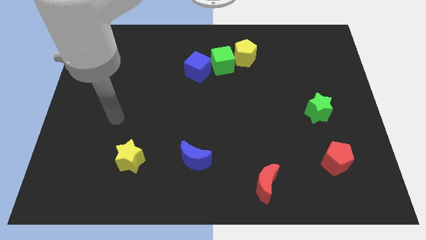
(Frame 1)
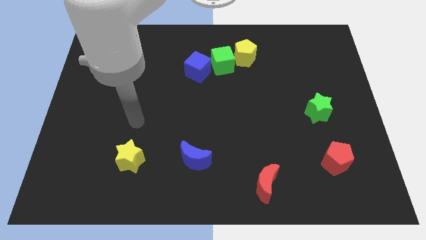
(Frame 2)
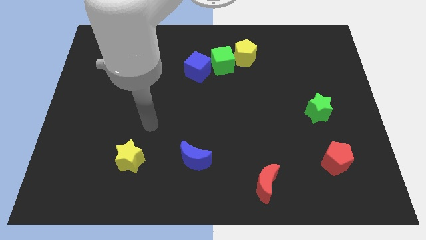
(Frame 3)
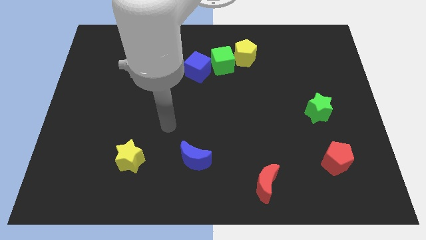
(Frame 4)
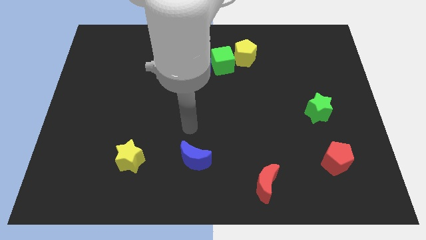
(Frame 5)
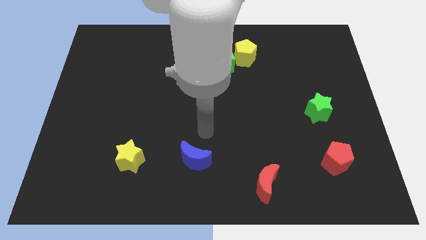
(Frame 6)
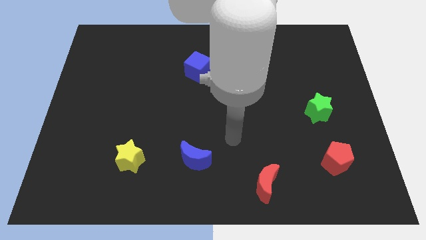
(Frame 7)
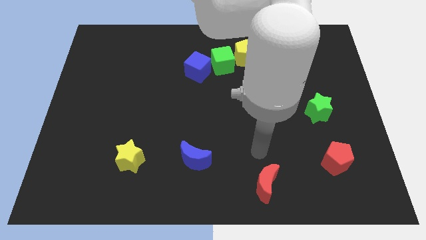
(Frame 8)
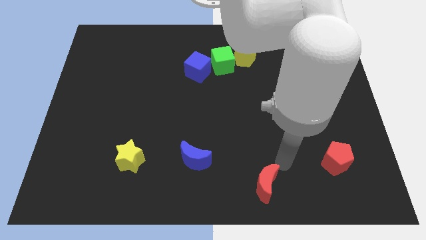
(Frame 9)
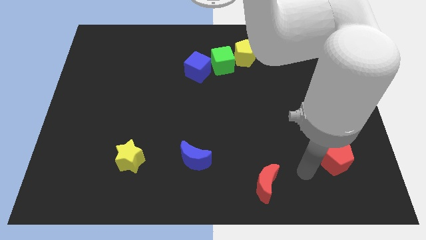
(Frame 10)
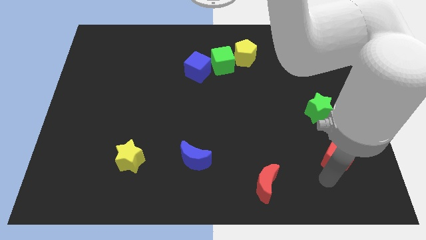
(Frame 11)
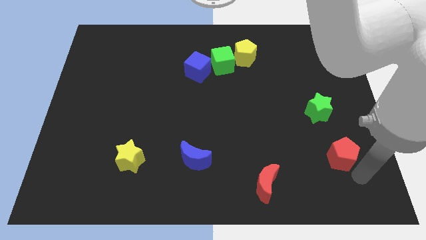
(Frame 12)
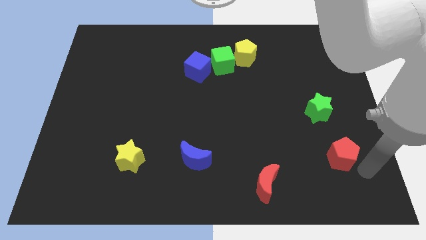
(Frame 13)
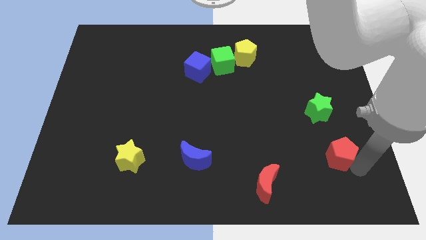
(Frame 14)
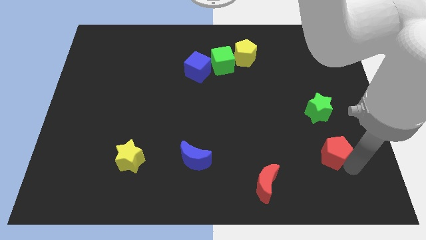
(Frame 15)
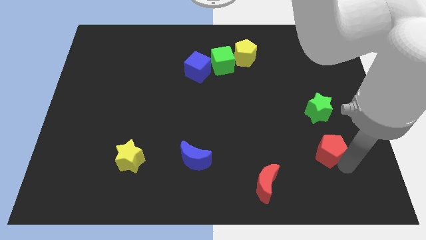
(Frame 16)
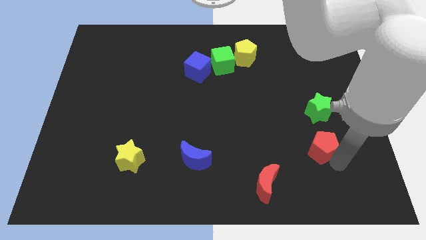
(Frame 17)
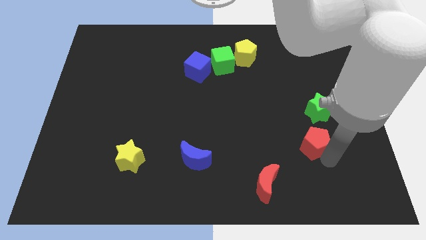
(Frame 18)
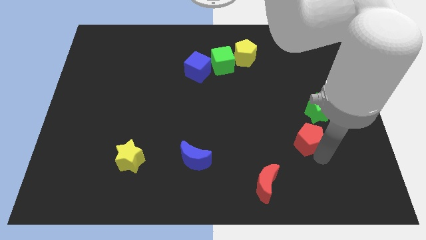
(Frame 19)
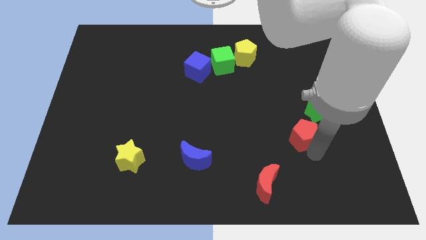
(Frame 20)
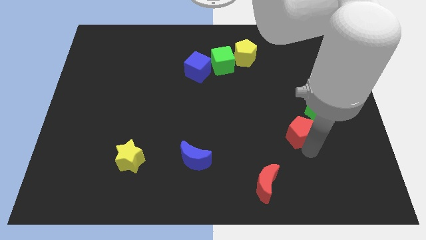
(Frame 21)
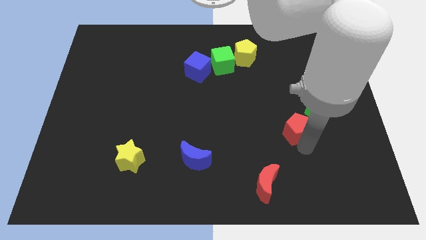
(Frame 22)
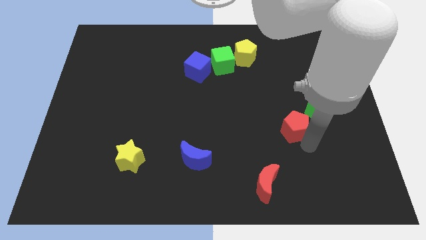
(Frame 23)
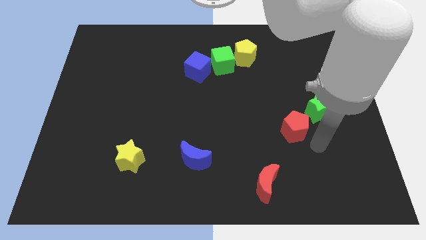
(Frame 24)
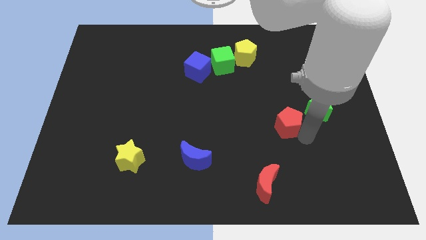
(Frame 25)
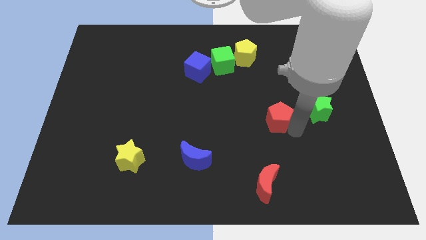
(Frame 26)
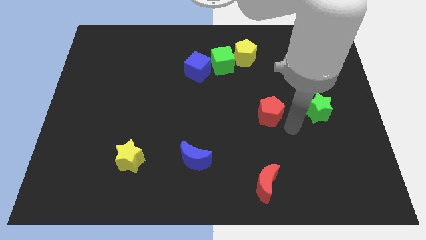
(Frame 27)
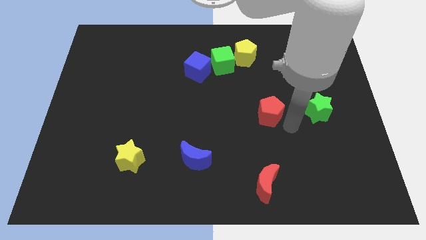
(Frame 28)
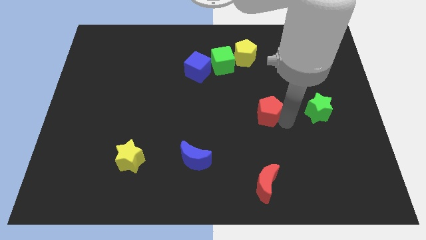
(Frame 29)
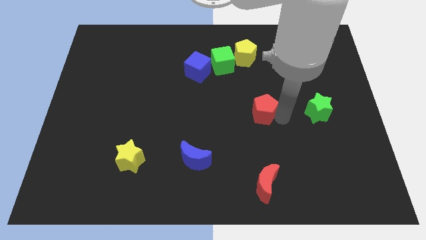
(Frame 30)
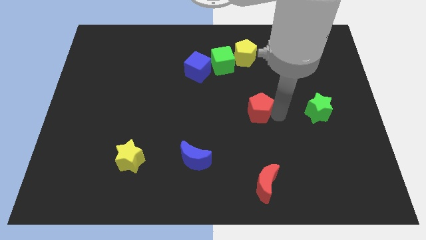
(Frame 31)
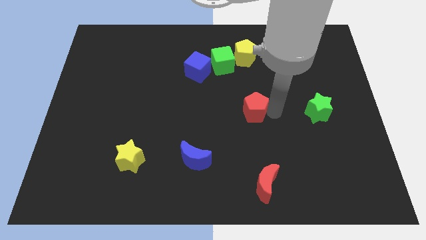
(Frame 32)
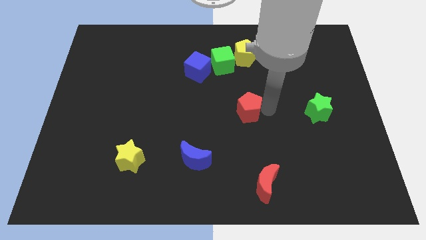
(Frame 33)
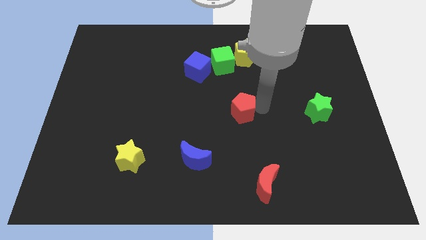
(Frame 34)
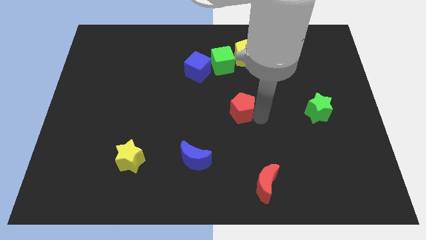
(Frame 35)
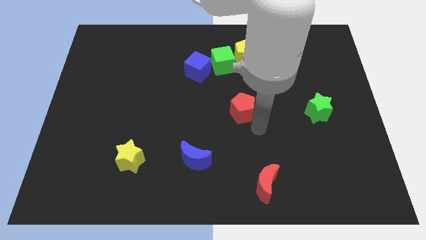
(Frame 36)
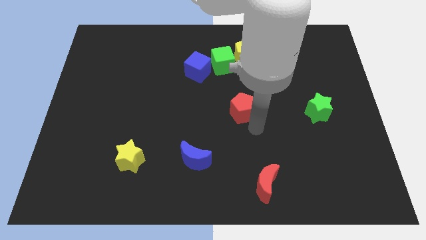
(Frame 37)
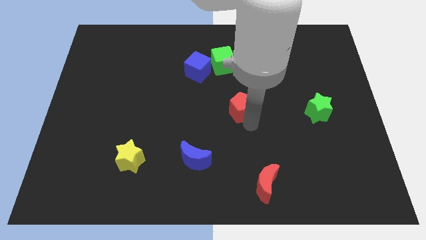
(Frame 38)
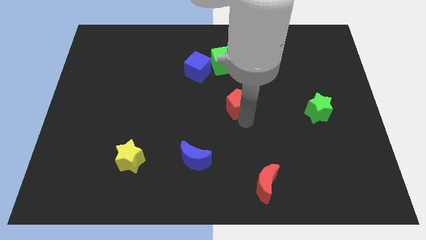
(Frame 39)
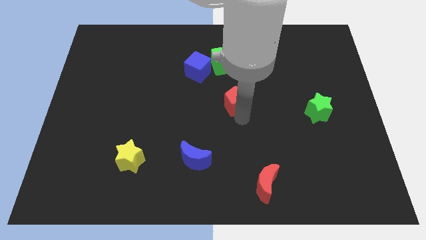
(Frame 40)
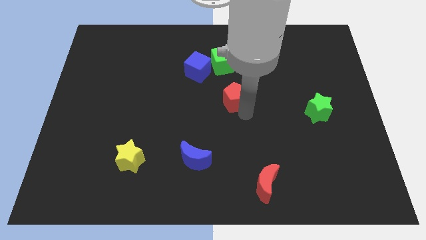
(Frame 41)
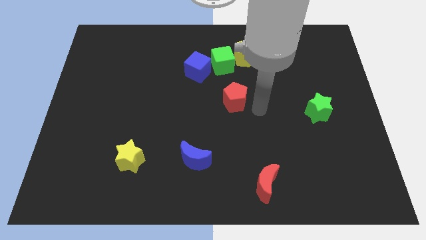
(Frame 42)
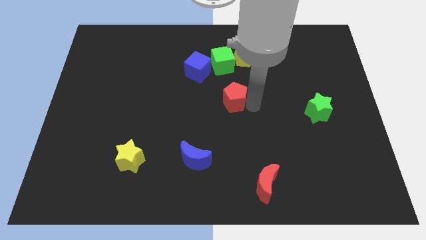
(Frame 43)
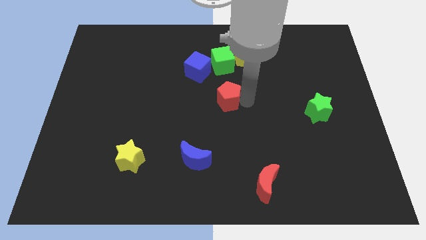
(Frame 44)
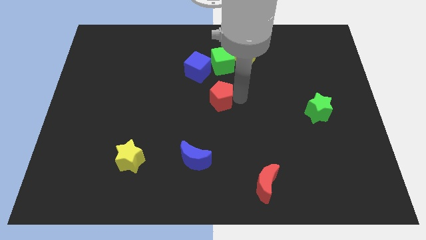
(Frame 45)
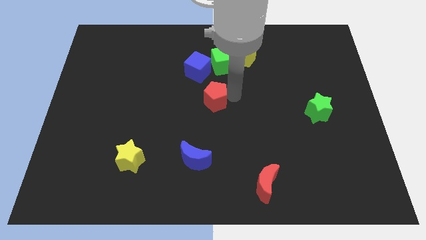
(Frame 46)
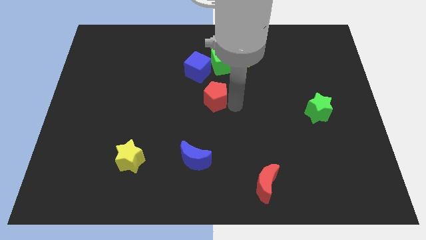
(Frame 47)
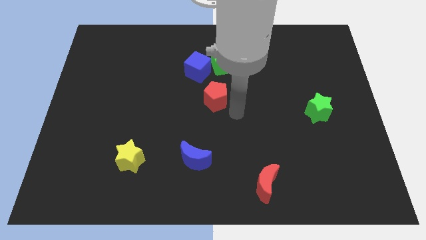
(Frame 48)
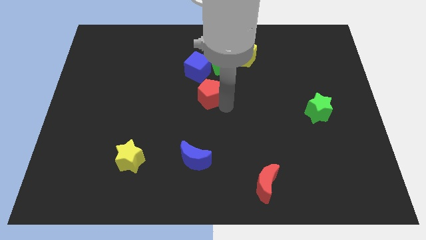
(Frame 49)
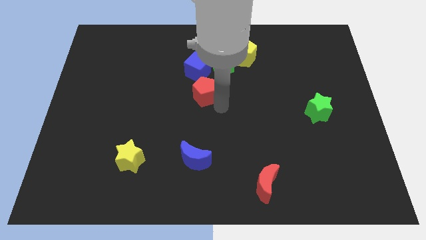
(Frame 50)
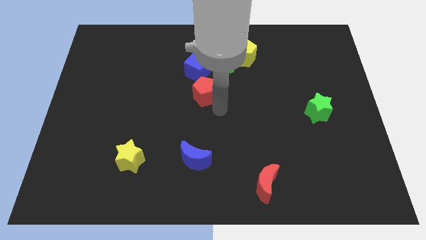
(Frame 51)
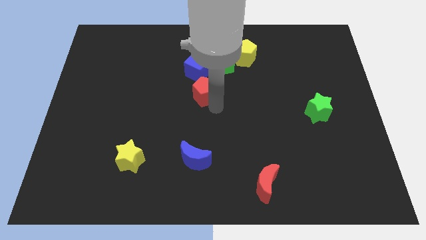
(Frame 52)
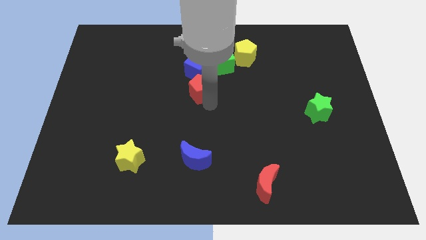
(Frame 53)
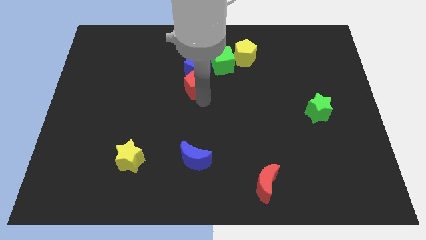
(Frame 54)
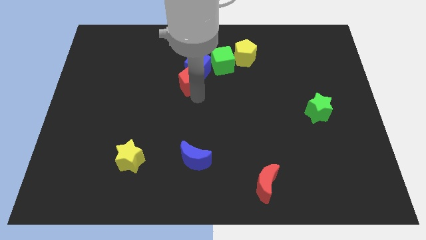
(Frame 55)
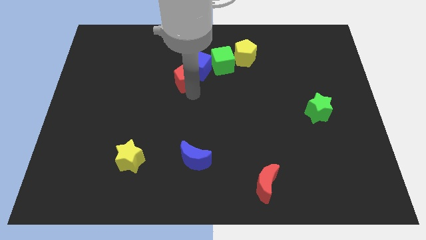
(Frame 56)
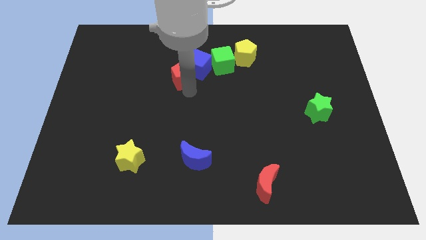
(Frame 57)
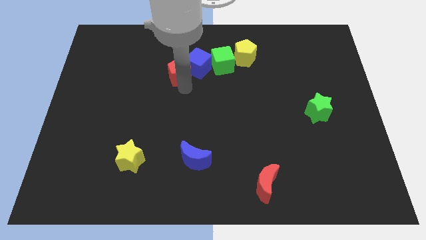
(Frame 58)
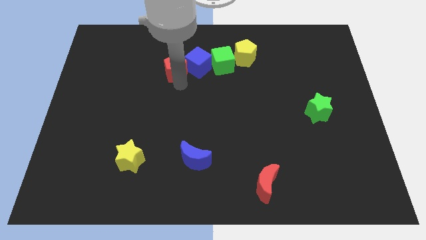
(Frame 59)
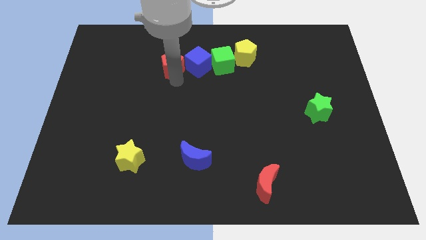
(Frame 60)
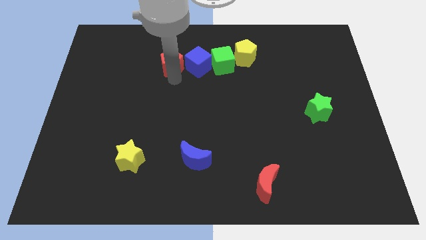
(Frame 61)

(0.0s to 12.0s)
move the red pentagon diagonally up and to the left of the blue cube

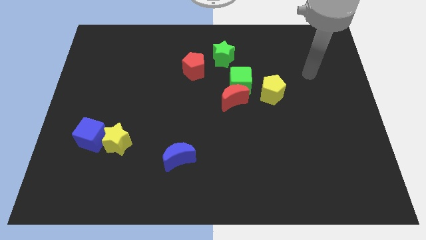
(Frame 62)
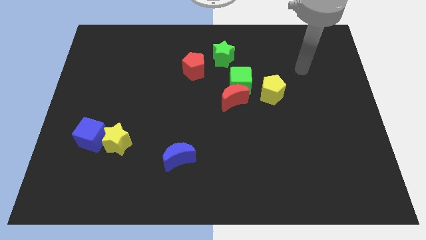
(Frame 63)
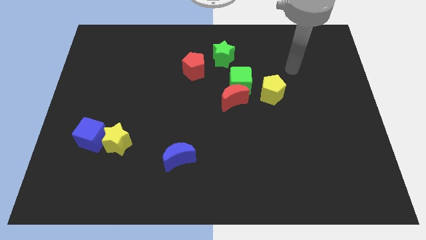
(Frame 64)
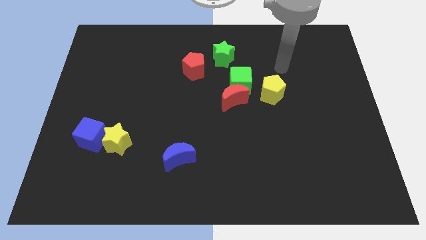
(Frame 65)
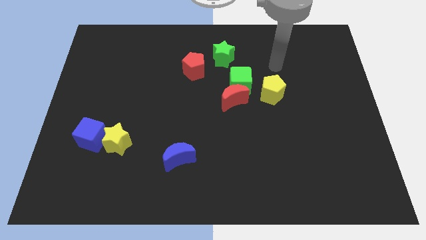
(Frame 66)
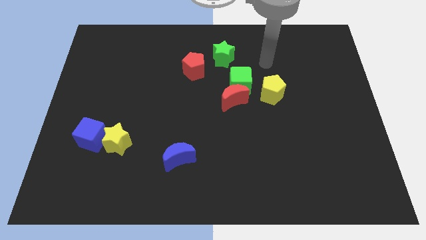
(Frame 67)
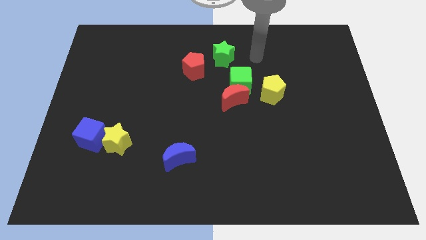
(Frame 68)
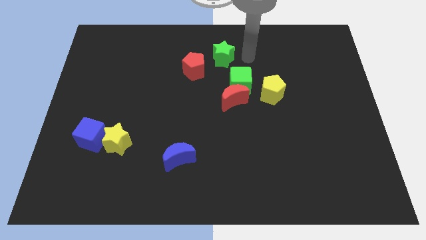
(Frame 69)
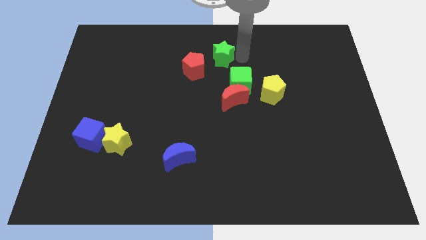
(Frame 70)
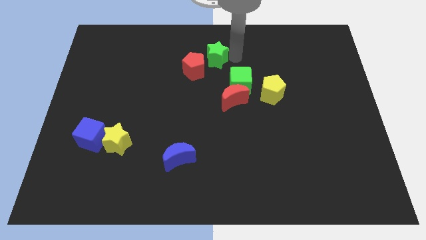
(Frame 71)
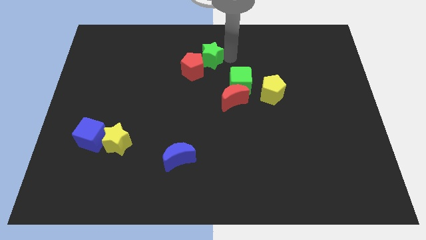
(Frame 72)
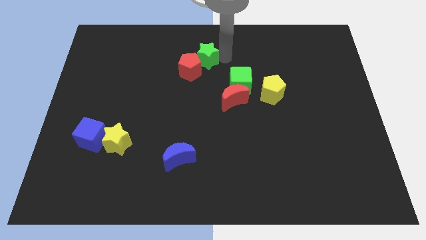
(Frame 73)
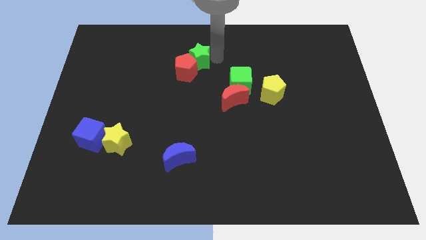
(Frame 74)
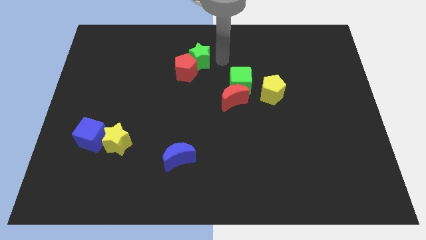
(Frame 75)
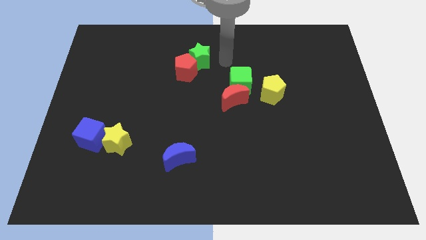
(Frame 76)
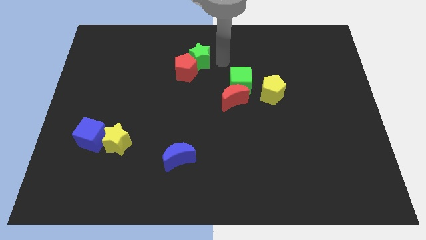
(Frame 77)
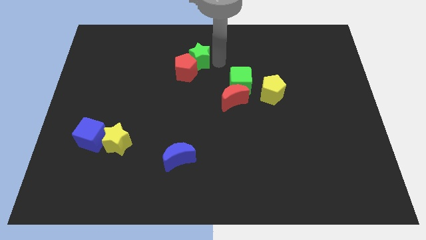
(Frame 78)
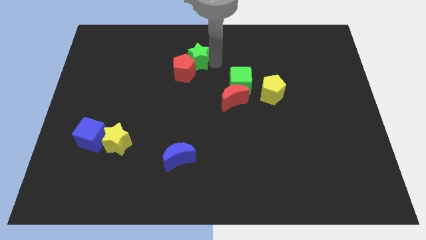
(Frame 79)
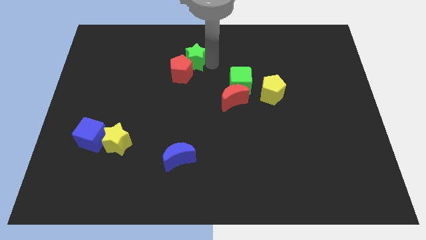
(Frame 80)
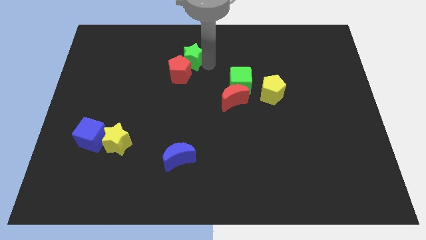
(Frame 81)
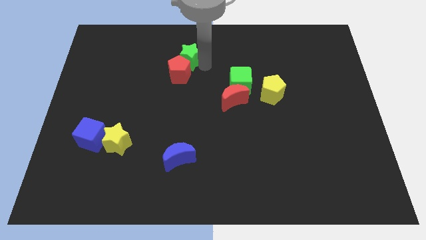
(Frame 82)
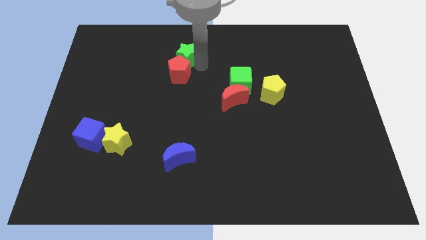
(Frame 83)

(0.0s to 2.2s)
put the green star to the top left side of the red pentagon
